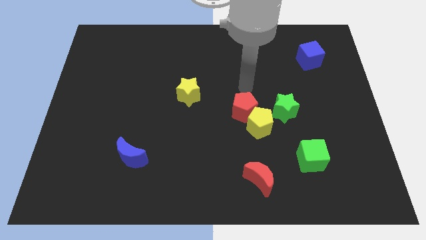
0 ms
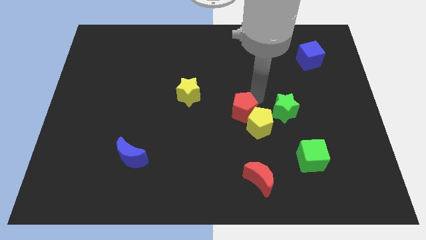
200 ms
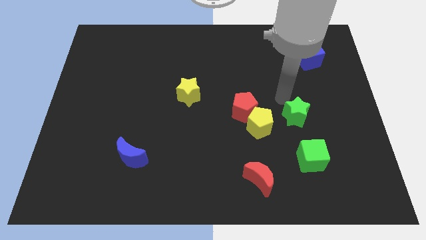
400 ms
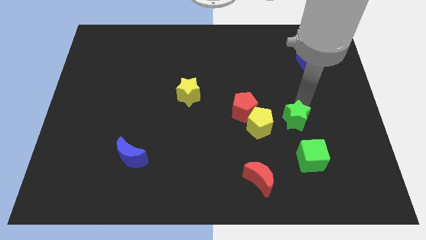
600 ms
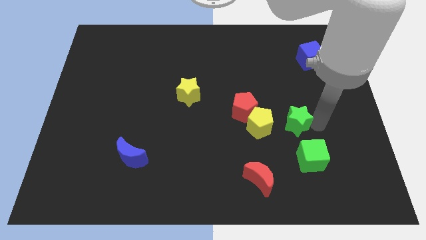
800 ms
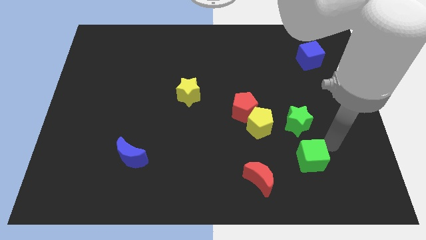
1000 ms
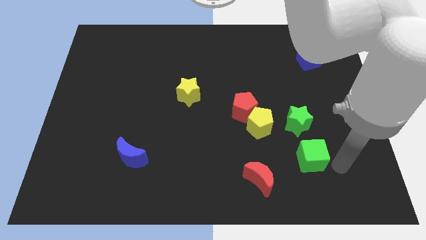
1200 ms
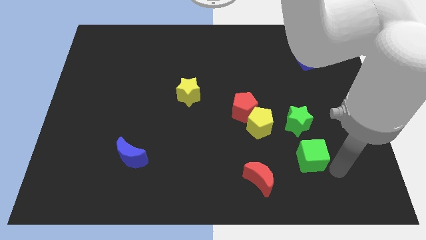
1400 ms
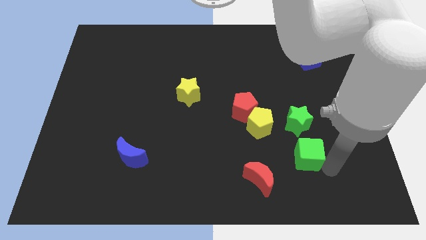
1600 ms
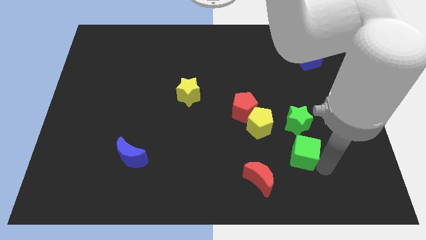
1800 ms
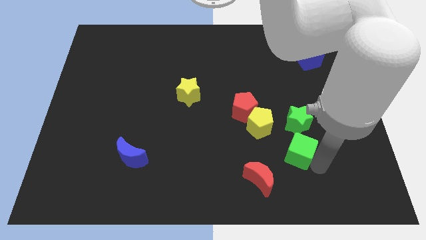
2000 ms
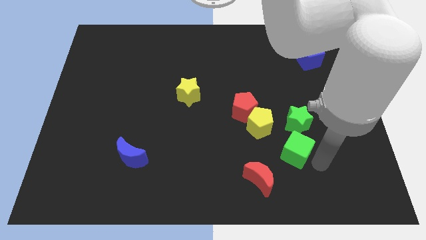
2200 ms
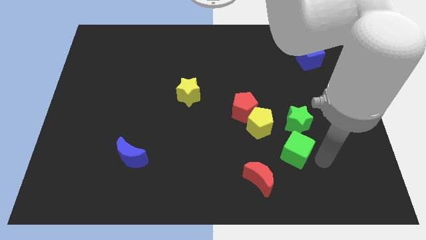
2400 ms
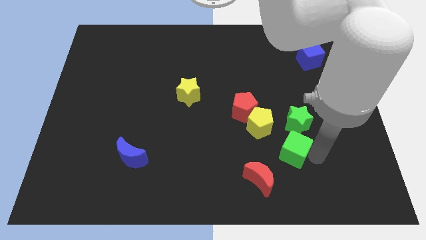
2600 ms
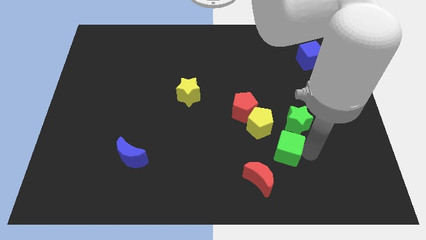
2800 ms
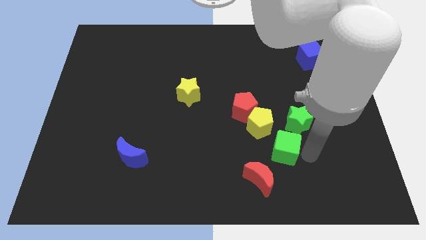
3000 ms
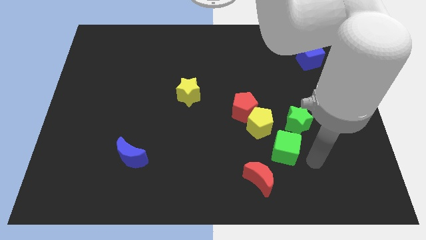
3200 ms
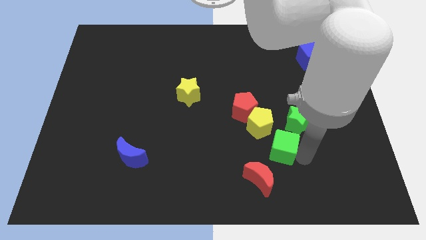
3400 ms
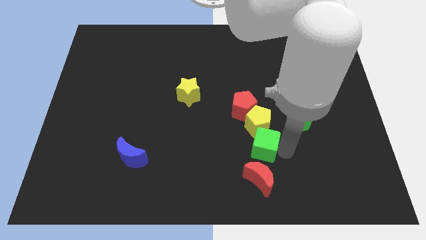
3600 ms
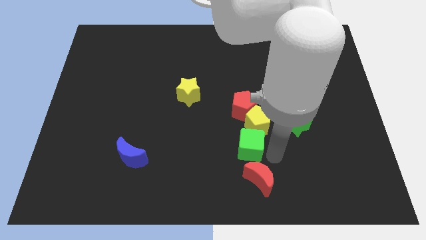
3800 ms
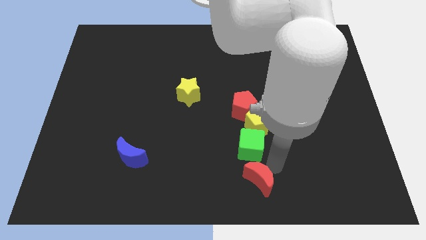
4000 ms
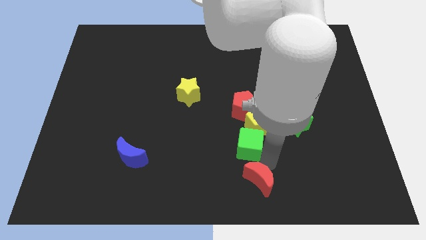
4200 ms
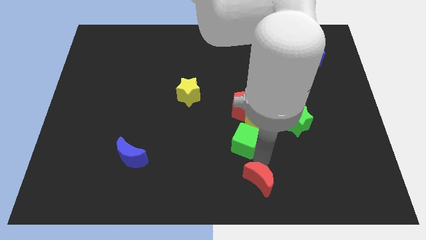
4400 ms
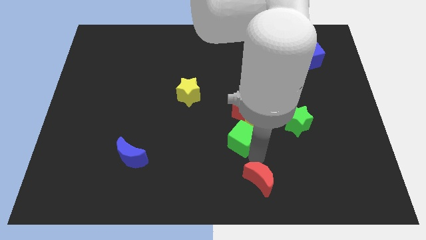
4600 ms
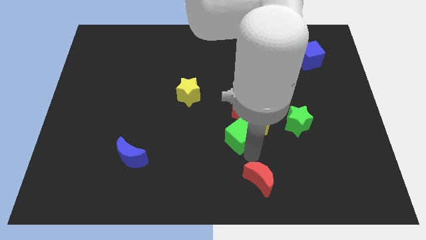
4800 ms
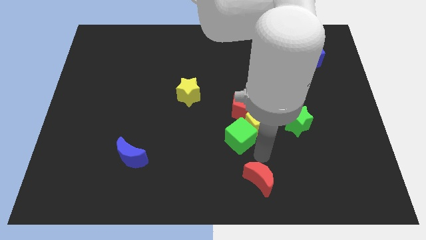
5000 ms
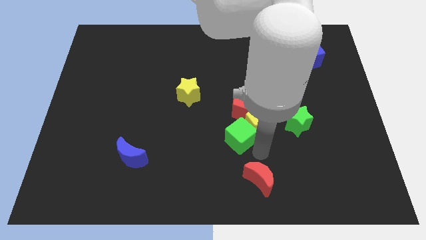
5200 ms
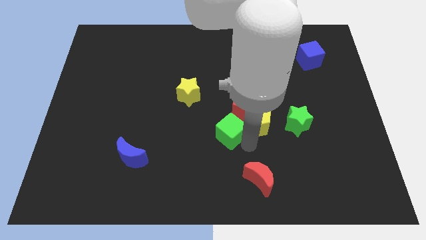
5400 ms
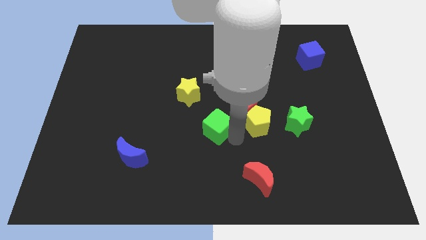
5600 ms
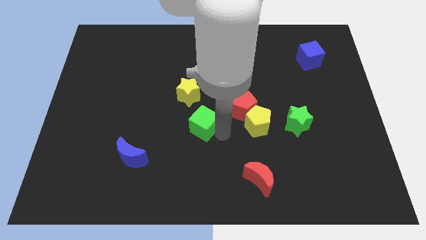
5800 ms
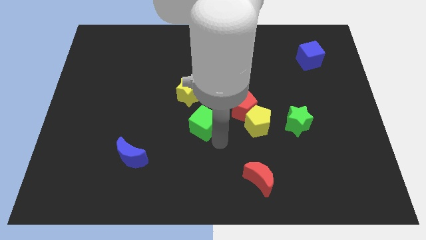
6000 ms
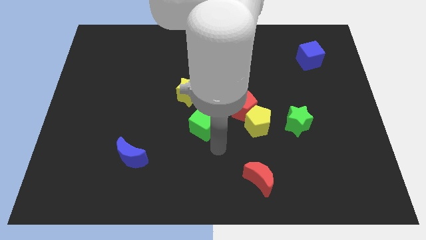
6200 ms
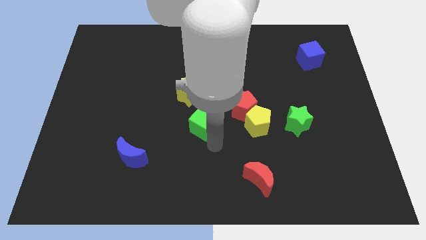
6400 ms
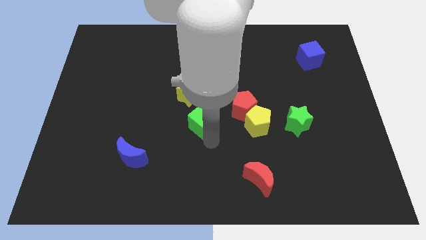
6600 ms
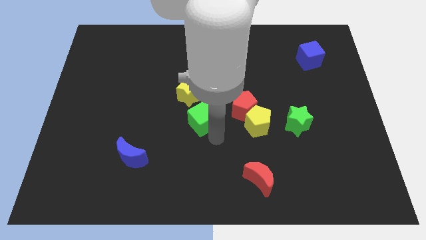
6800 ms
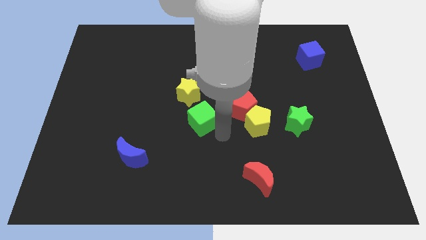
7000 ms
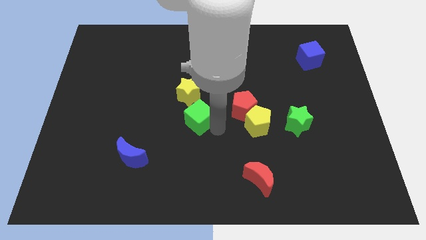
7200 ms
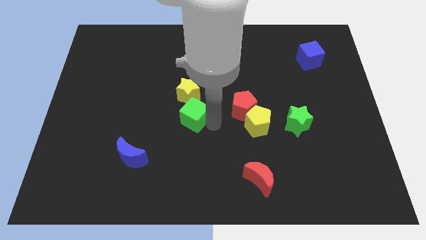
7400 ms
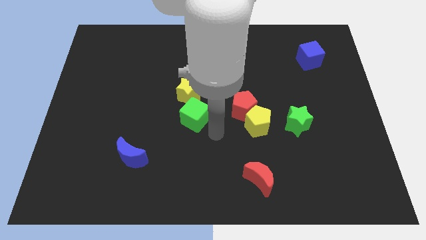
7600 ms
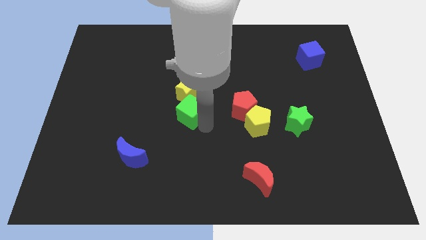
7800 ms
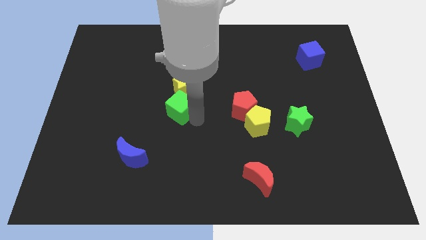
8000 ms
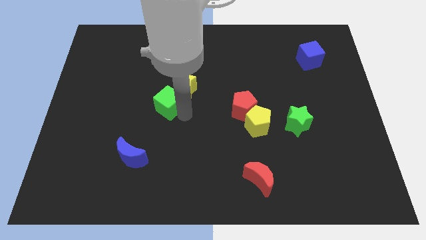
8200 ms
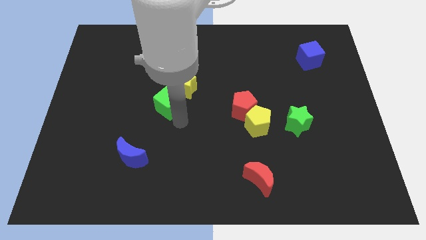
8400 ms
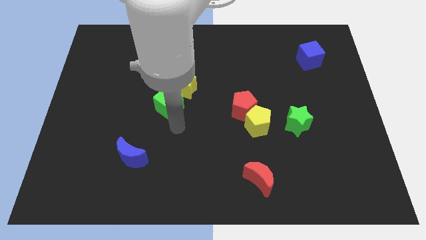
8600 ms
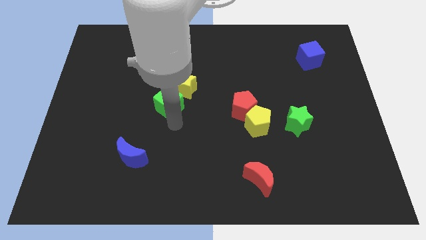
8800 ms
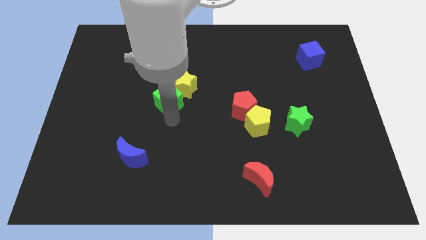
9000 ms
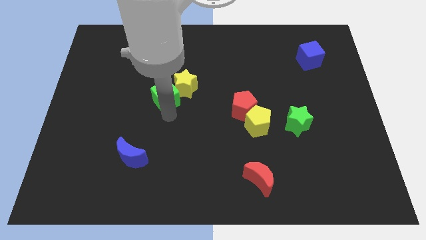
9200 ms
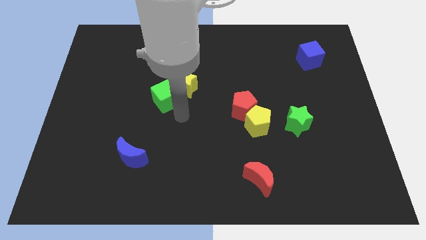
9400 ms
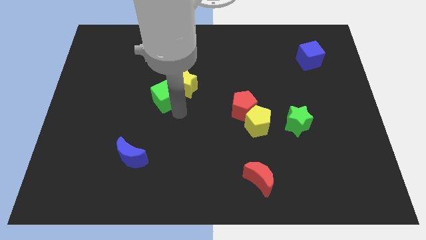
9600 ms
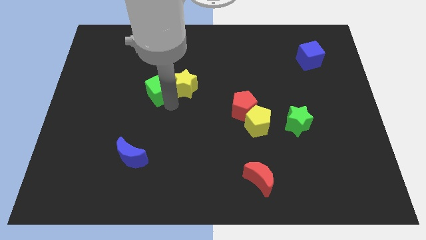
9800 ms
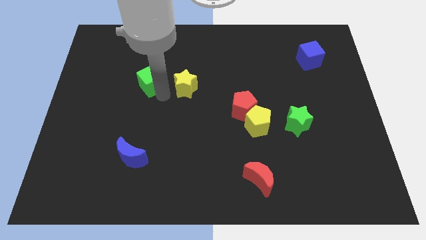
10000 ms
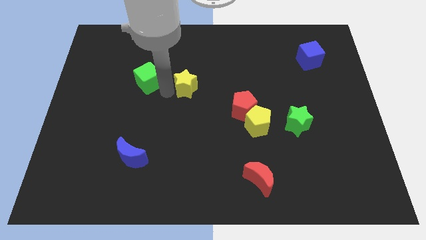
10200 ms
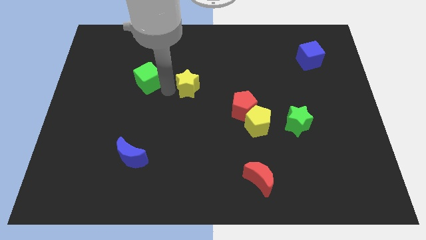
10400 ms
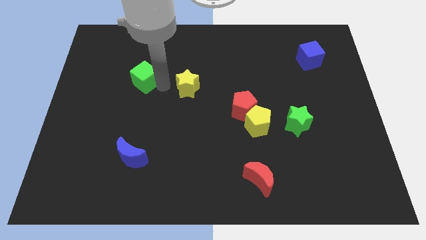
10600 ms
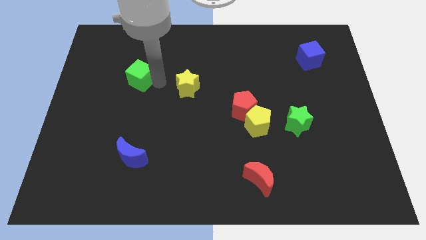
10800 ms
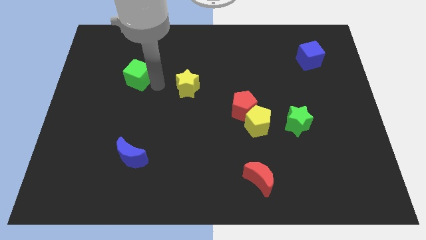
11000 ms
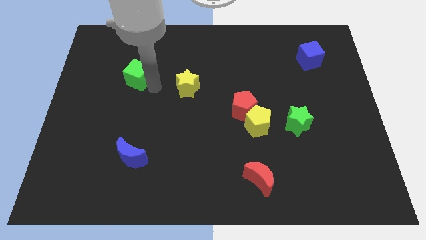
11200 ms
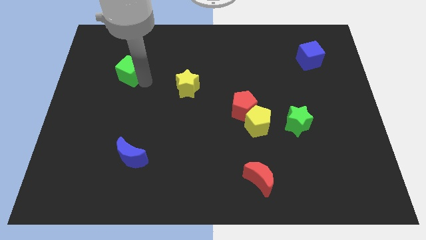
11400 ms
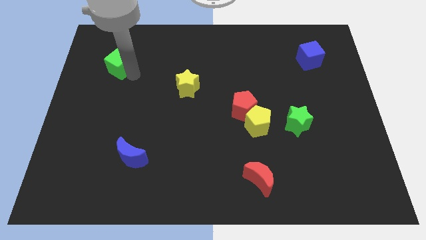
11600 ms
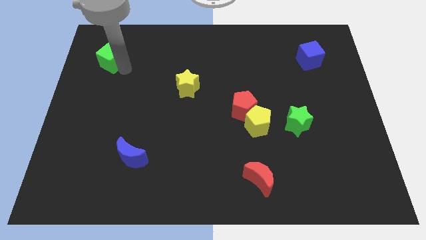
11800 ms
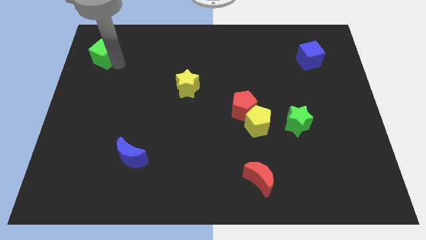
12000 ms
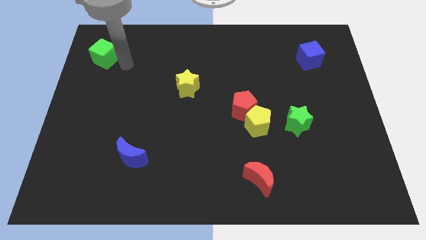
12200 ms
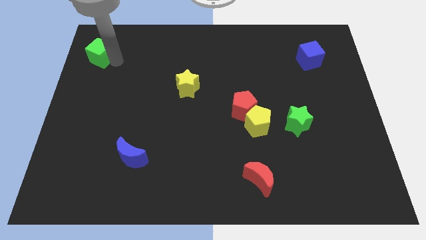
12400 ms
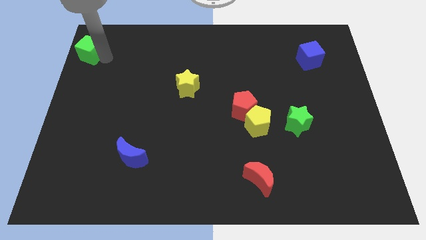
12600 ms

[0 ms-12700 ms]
slide the green cube to the top left
